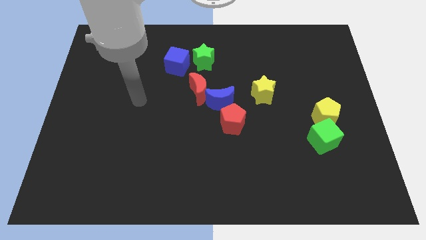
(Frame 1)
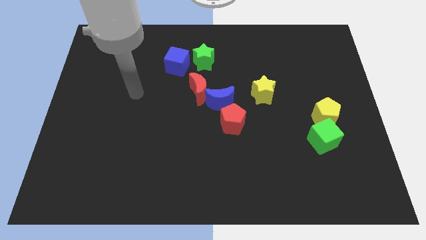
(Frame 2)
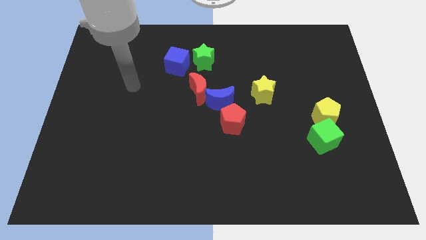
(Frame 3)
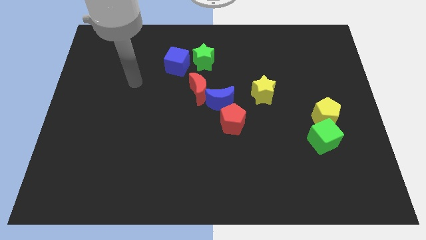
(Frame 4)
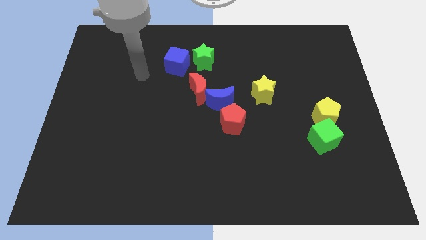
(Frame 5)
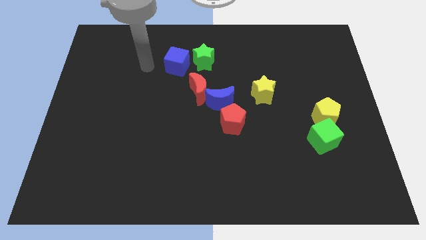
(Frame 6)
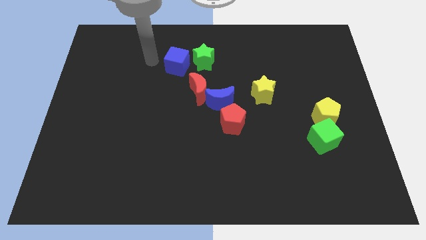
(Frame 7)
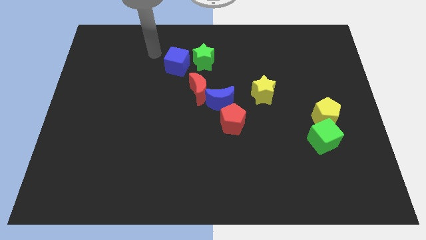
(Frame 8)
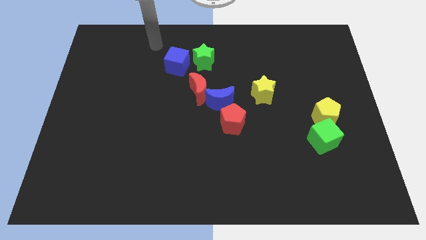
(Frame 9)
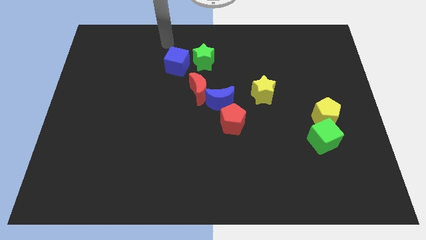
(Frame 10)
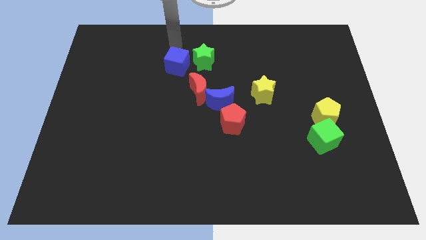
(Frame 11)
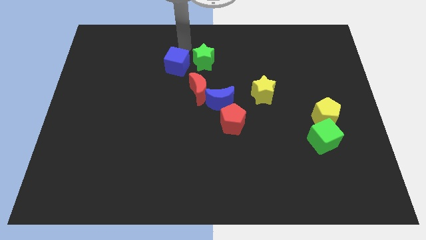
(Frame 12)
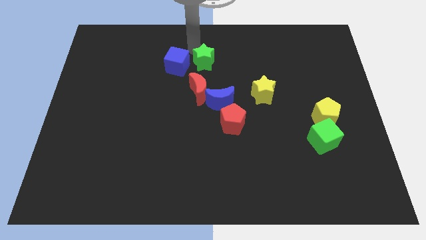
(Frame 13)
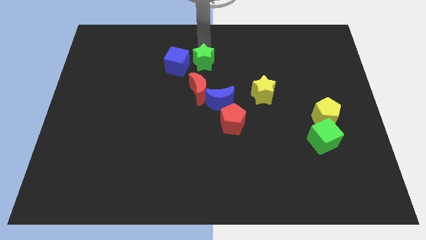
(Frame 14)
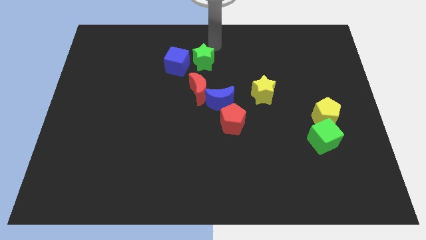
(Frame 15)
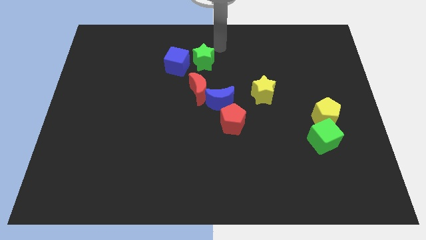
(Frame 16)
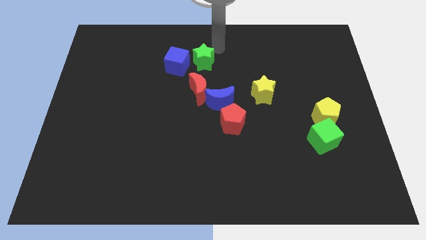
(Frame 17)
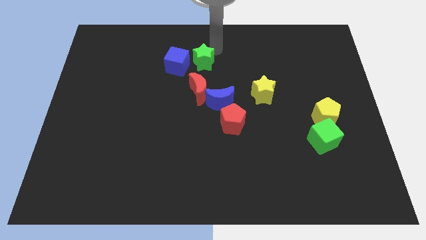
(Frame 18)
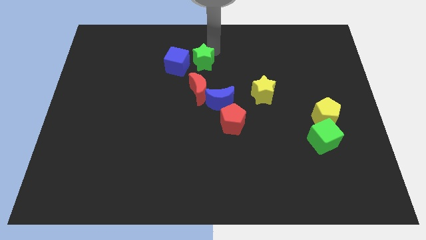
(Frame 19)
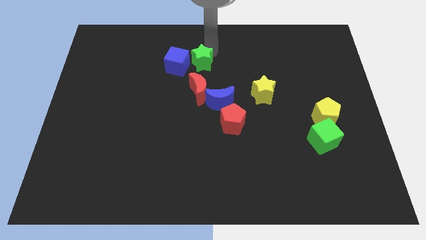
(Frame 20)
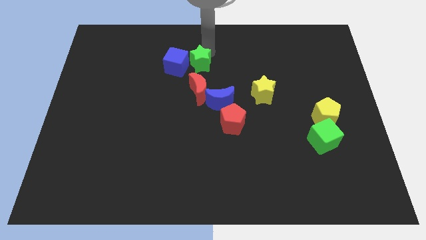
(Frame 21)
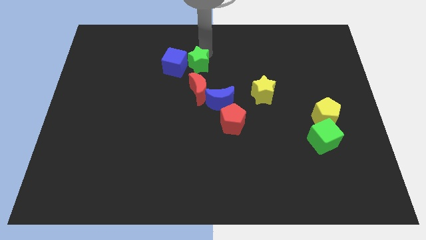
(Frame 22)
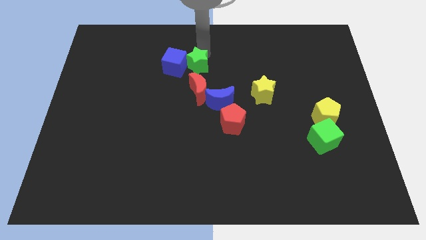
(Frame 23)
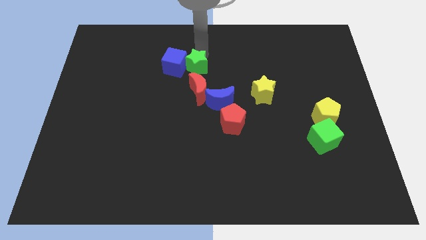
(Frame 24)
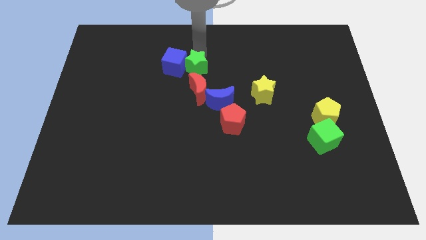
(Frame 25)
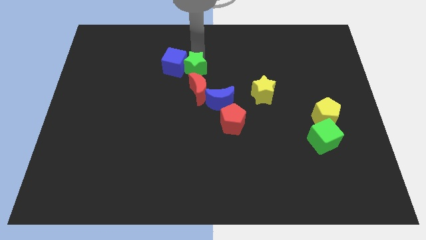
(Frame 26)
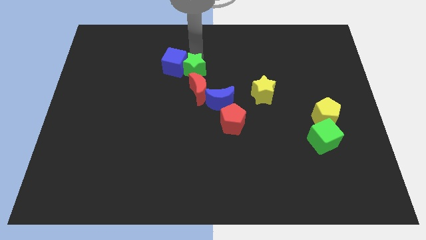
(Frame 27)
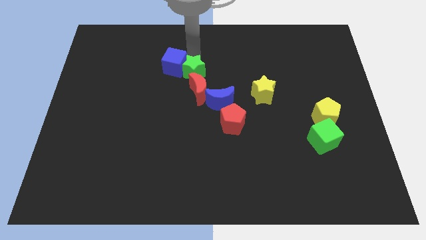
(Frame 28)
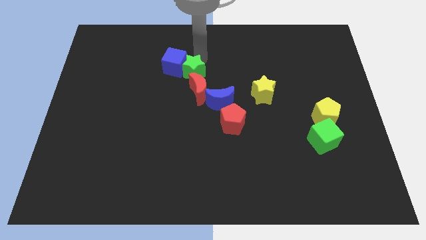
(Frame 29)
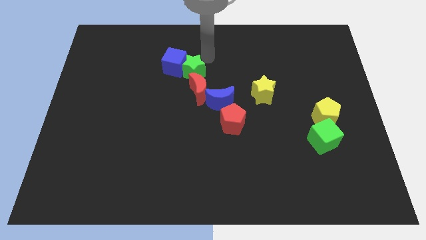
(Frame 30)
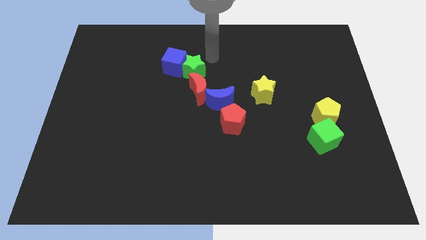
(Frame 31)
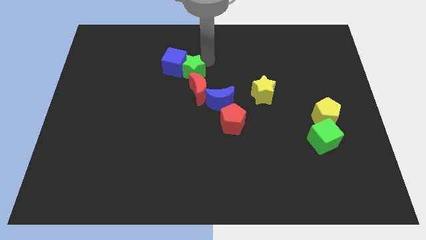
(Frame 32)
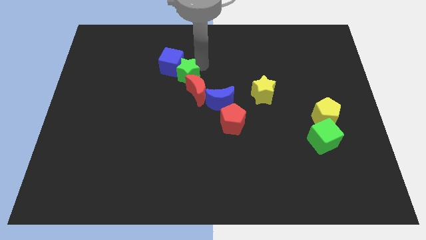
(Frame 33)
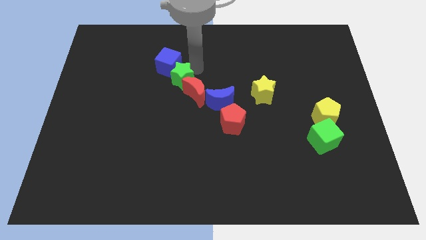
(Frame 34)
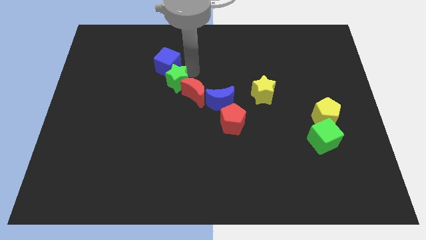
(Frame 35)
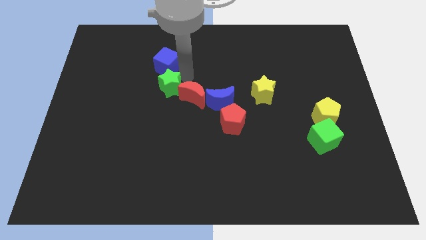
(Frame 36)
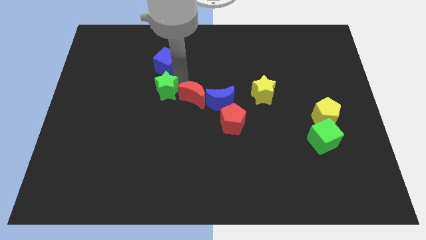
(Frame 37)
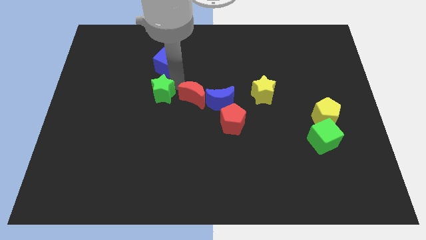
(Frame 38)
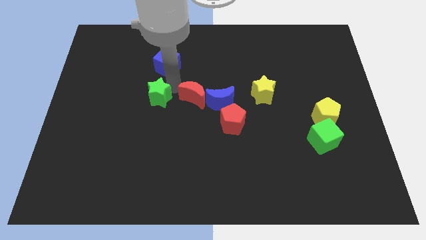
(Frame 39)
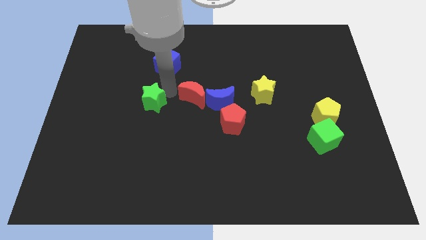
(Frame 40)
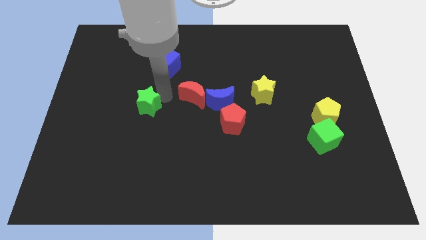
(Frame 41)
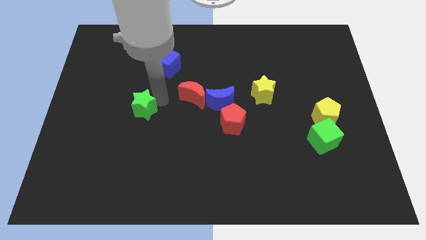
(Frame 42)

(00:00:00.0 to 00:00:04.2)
slide the green star down and then to the left

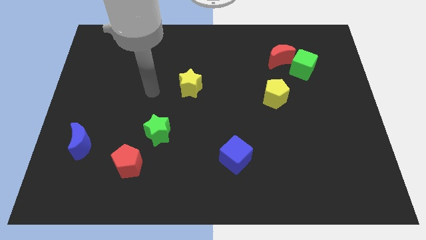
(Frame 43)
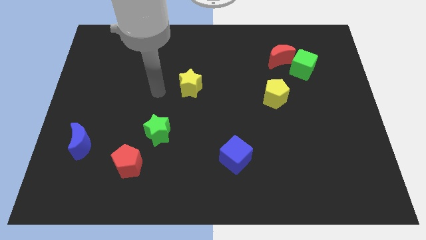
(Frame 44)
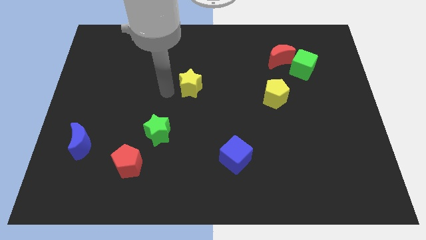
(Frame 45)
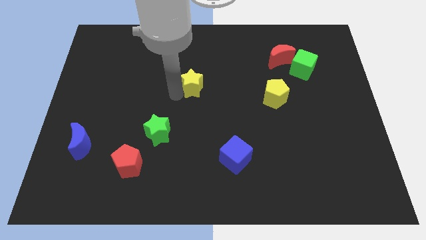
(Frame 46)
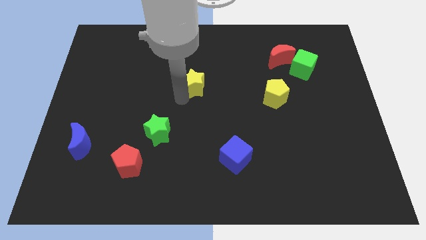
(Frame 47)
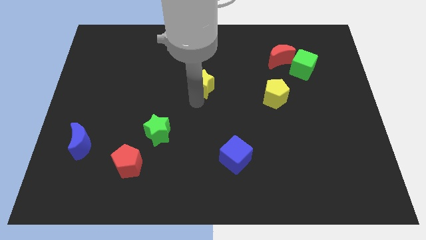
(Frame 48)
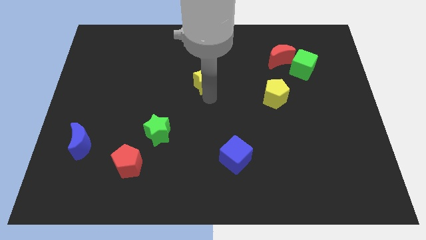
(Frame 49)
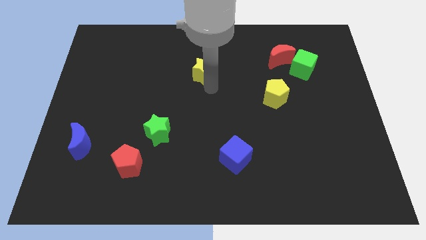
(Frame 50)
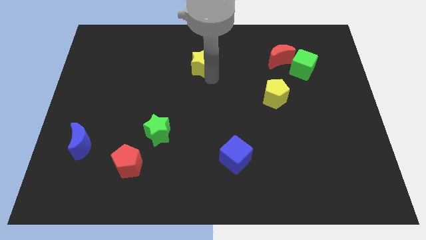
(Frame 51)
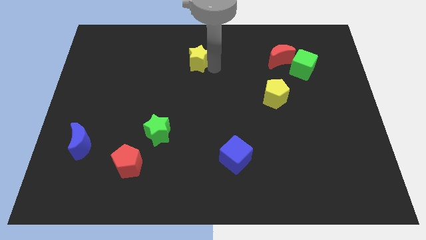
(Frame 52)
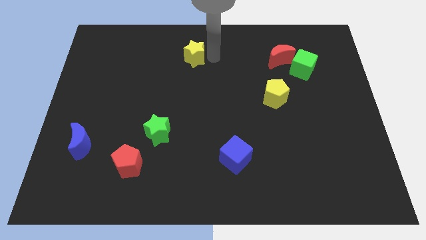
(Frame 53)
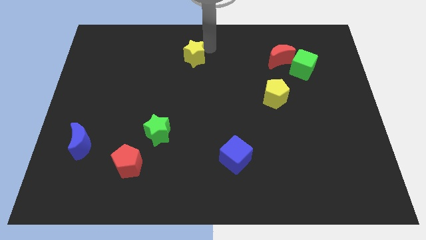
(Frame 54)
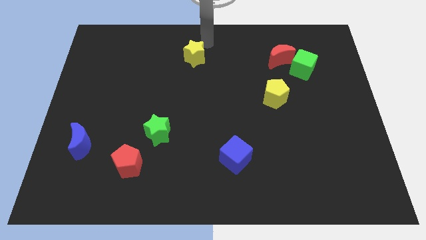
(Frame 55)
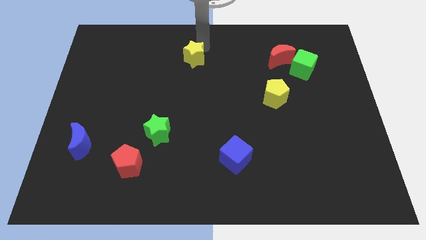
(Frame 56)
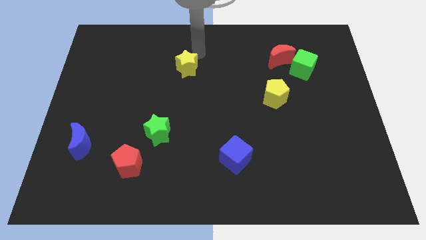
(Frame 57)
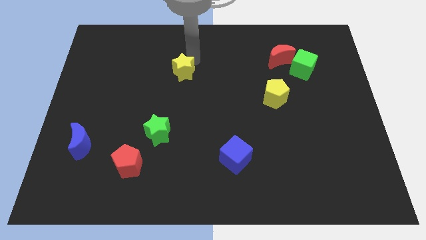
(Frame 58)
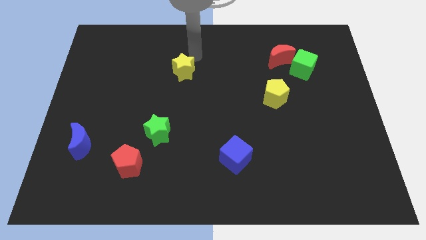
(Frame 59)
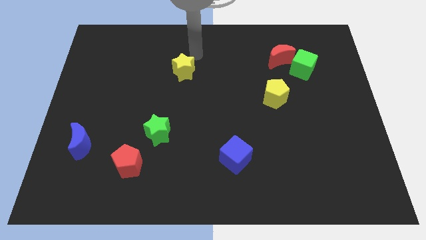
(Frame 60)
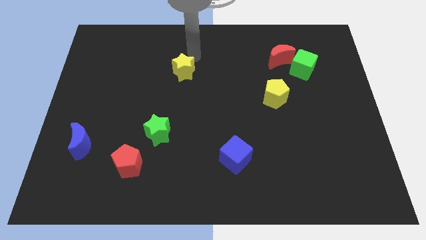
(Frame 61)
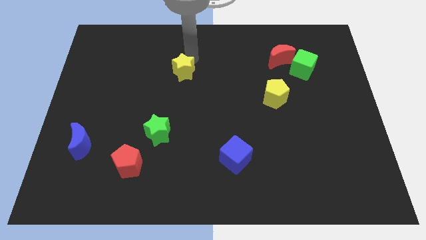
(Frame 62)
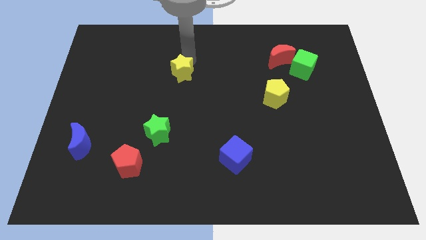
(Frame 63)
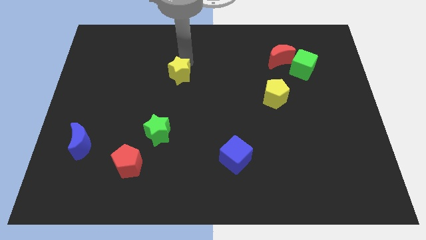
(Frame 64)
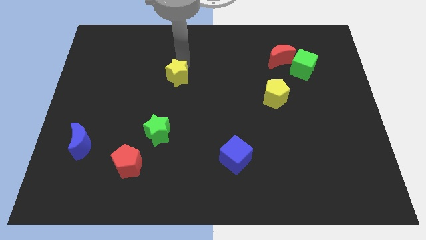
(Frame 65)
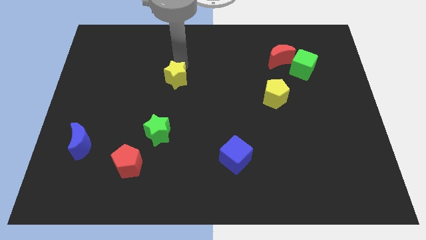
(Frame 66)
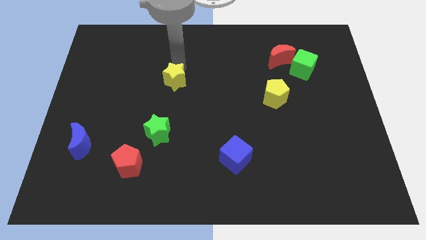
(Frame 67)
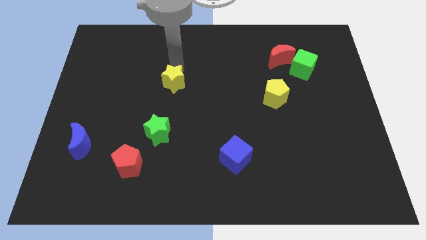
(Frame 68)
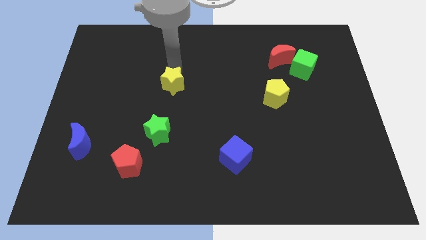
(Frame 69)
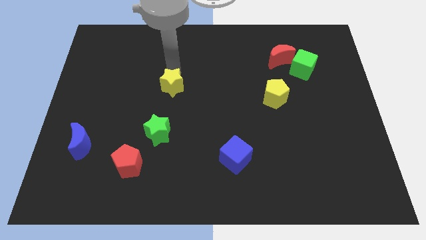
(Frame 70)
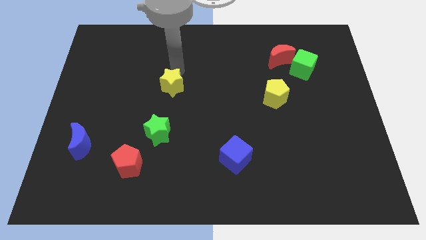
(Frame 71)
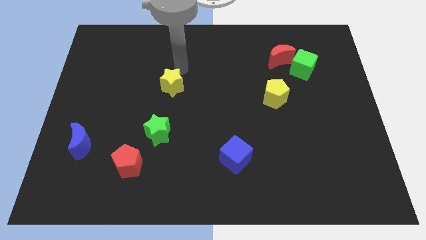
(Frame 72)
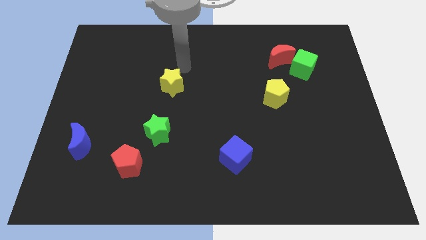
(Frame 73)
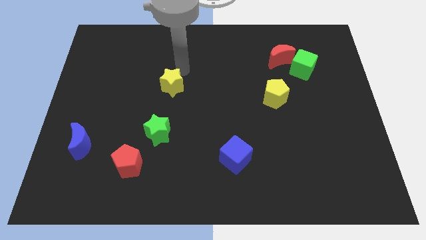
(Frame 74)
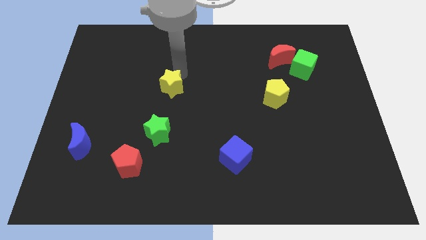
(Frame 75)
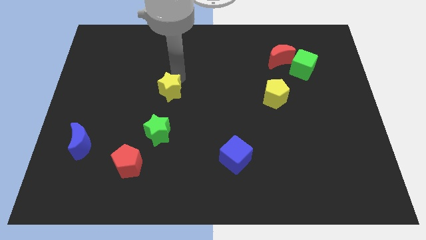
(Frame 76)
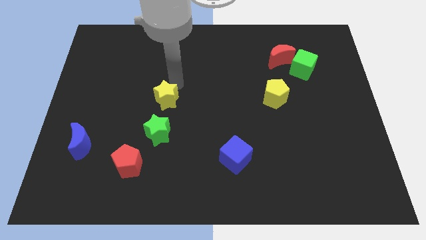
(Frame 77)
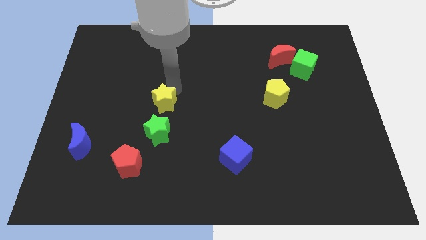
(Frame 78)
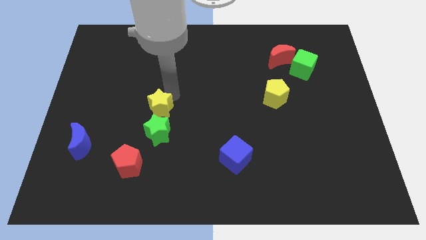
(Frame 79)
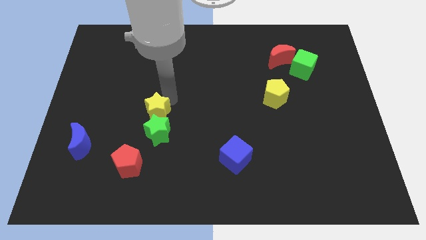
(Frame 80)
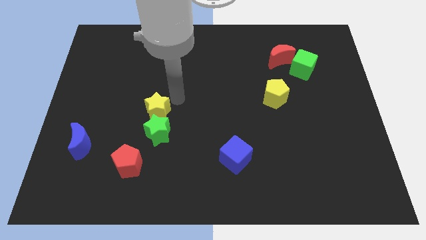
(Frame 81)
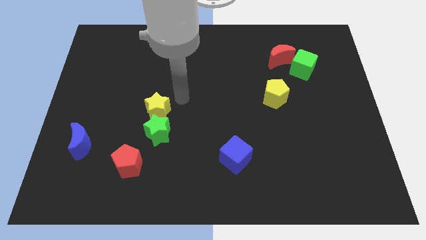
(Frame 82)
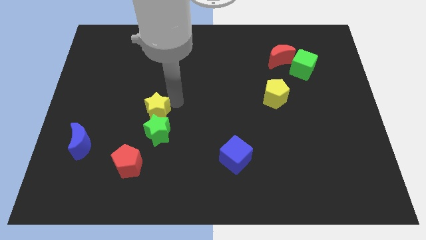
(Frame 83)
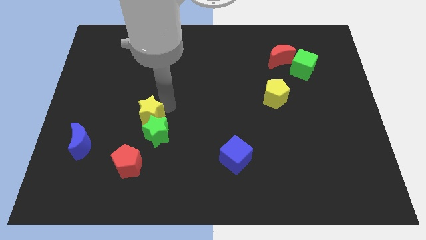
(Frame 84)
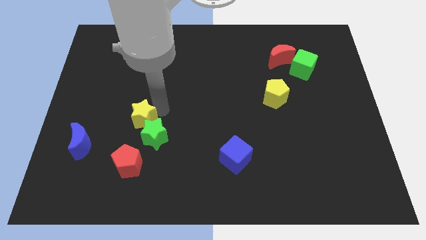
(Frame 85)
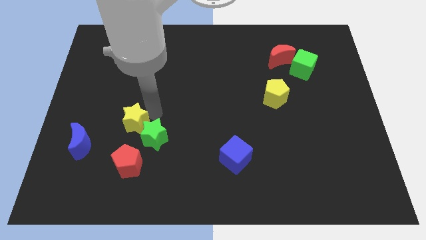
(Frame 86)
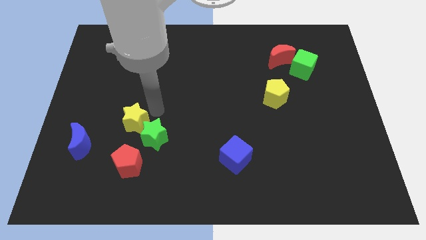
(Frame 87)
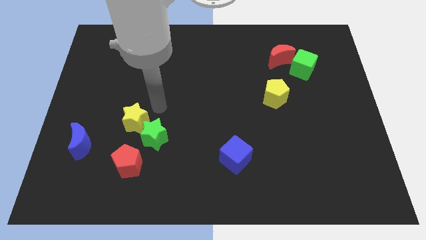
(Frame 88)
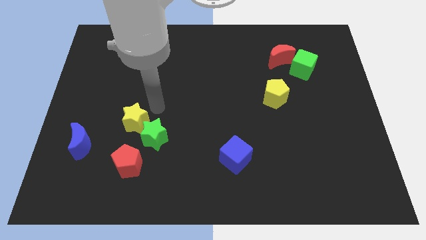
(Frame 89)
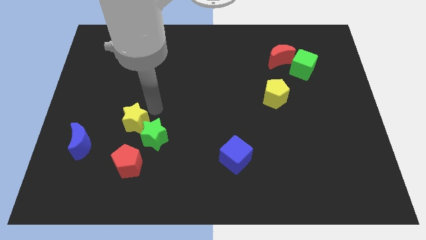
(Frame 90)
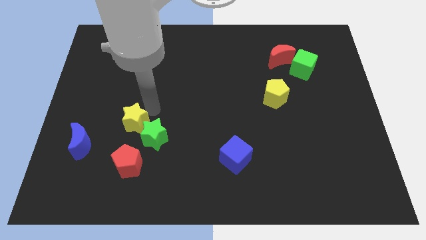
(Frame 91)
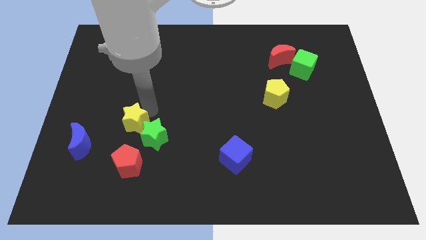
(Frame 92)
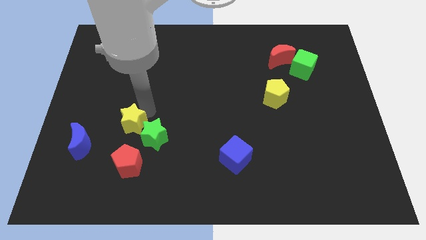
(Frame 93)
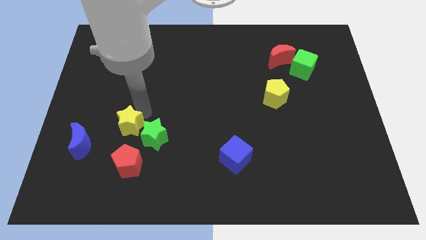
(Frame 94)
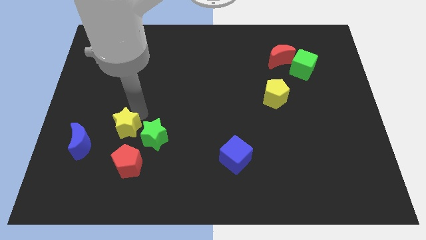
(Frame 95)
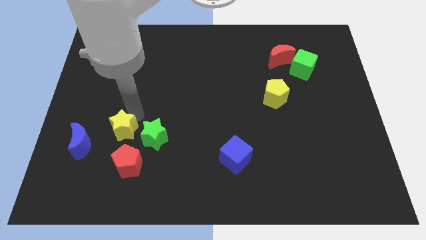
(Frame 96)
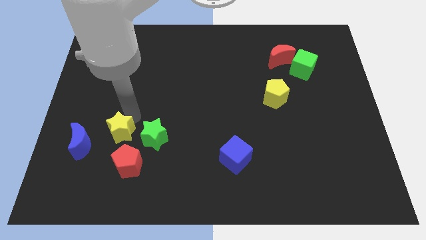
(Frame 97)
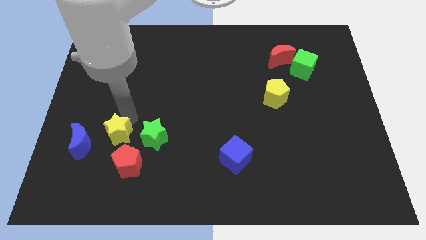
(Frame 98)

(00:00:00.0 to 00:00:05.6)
move the yellow star diagonally down and left
